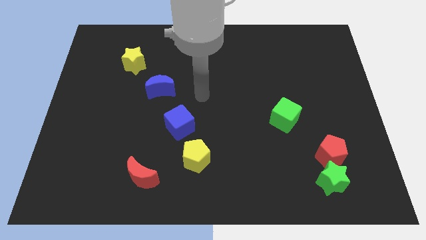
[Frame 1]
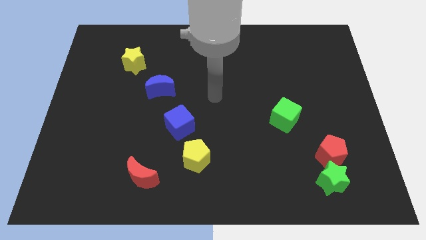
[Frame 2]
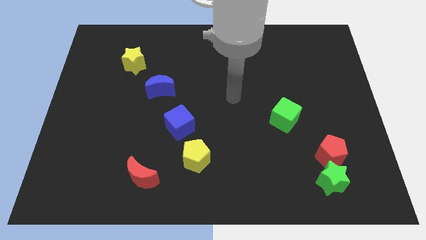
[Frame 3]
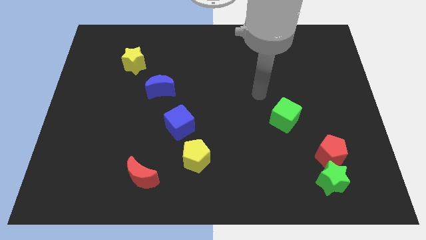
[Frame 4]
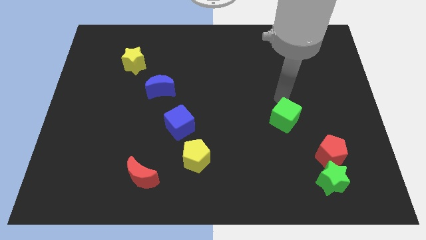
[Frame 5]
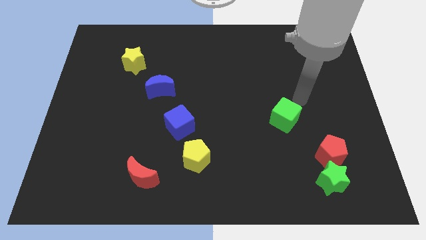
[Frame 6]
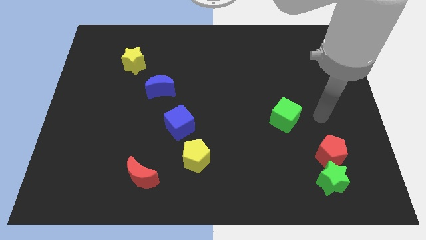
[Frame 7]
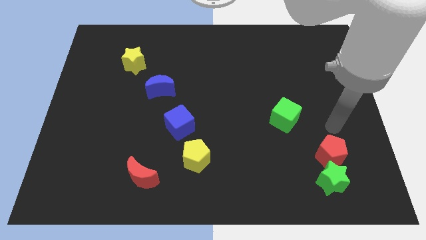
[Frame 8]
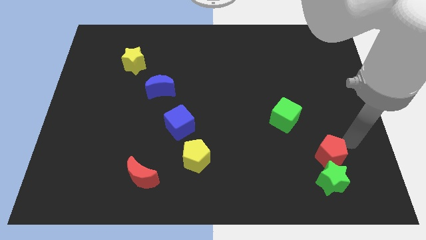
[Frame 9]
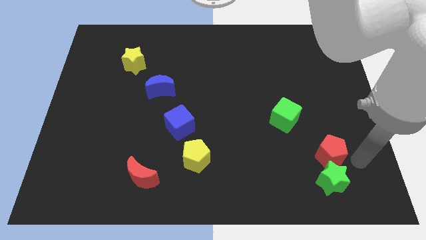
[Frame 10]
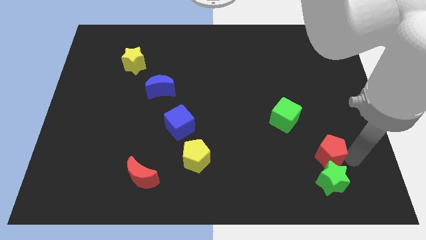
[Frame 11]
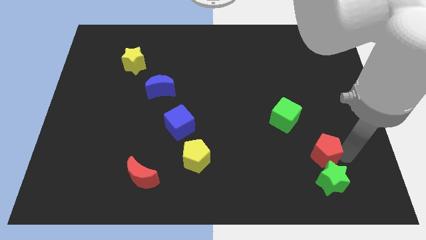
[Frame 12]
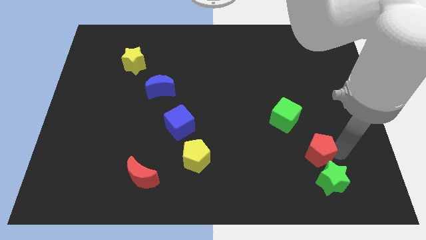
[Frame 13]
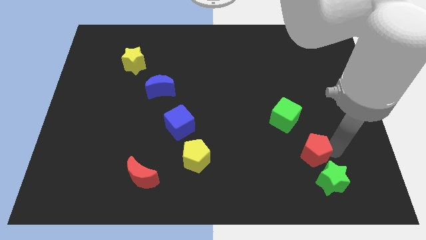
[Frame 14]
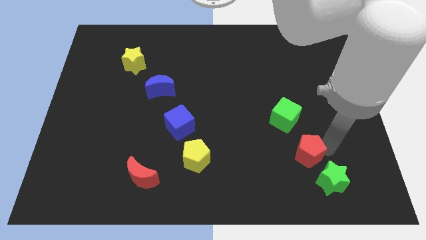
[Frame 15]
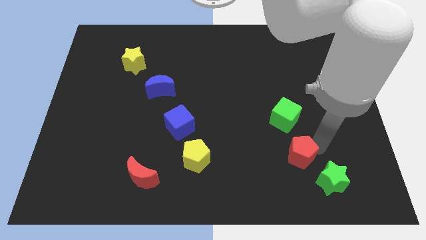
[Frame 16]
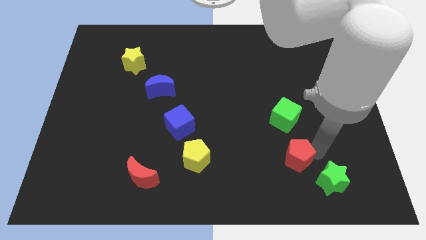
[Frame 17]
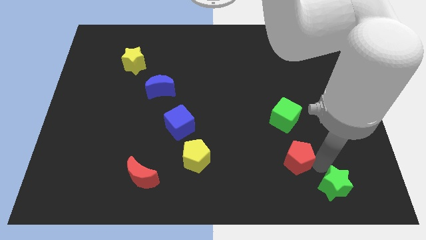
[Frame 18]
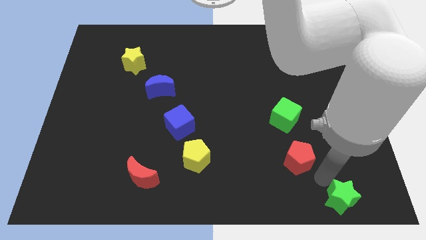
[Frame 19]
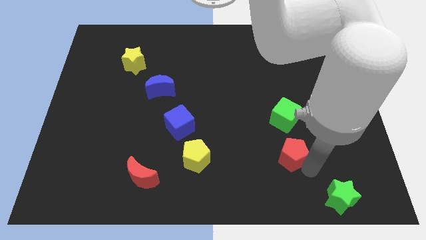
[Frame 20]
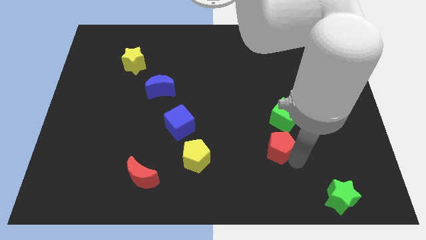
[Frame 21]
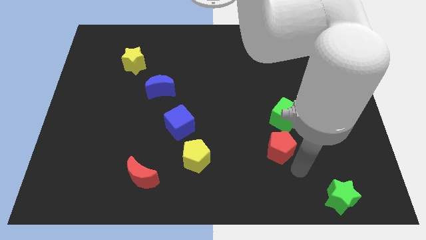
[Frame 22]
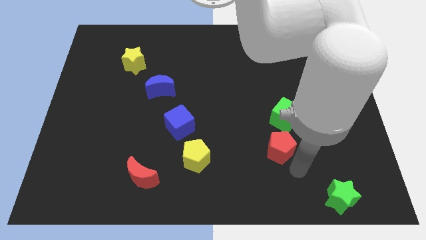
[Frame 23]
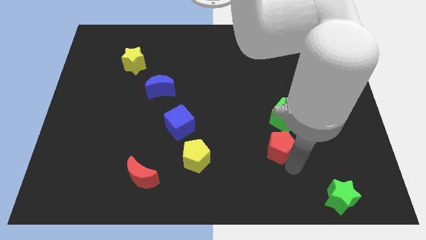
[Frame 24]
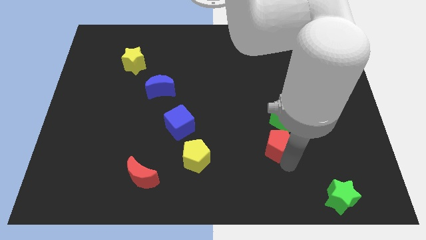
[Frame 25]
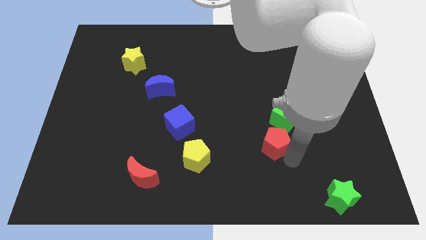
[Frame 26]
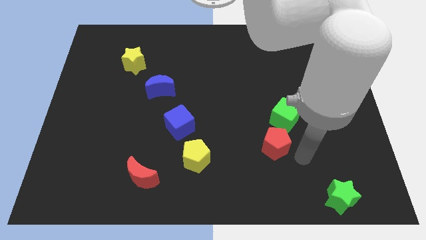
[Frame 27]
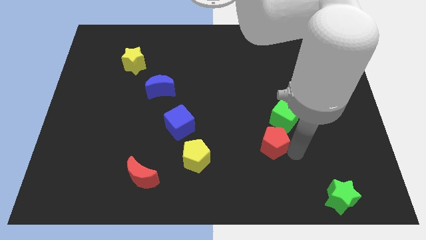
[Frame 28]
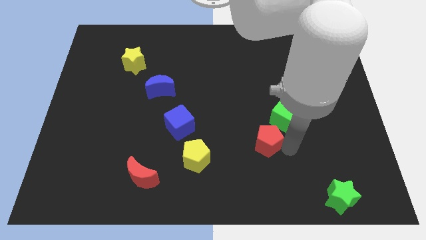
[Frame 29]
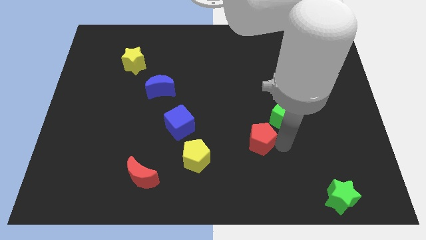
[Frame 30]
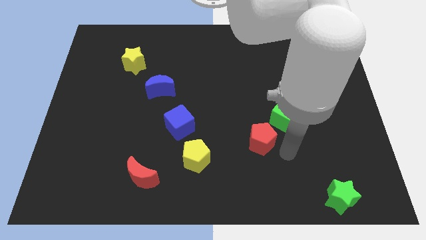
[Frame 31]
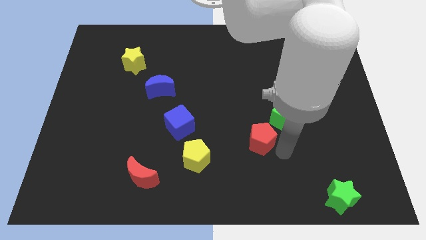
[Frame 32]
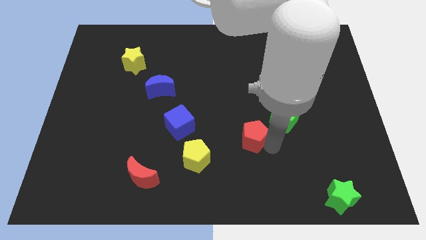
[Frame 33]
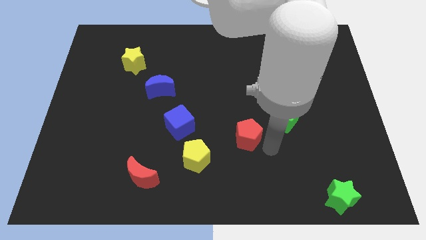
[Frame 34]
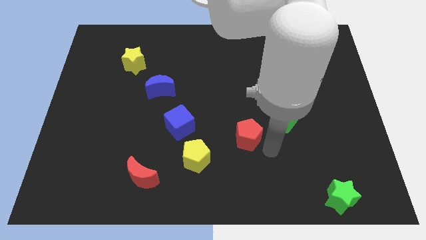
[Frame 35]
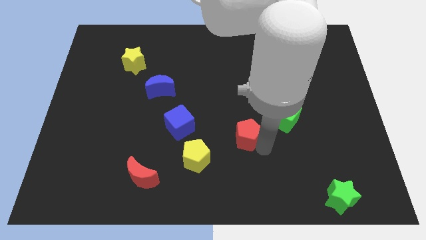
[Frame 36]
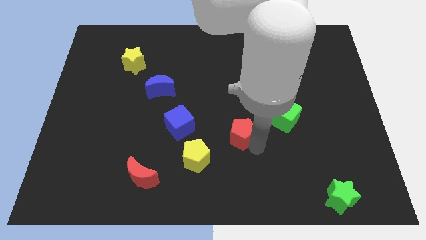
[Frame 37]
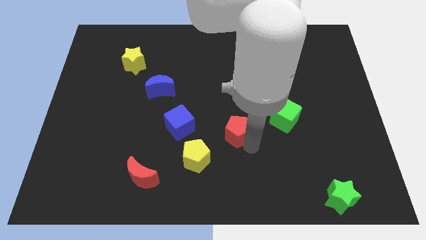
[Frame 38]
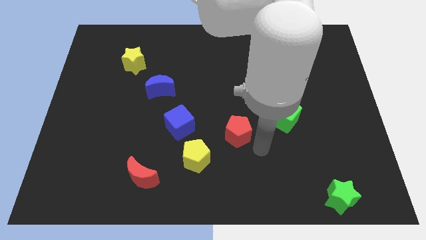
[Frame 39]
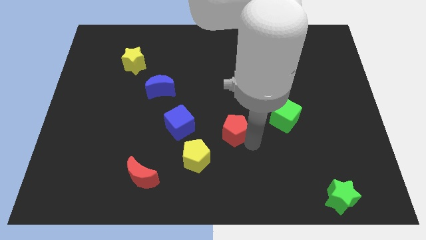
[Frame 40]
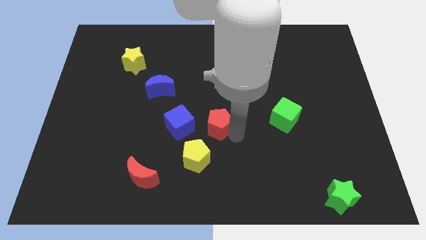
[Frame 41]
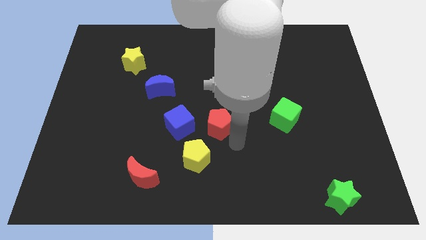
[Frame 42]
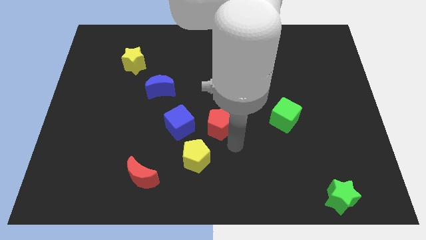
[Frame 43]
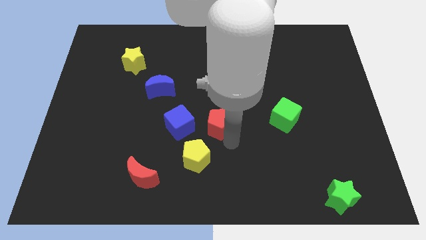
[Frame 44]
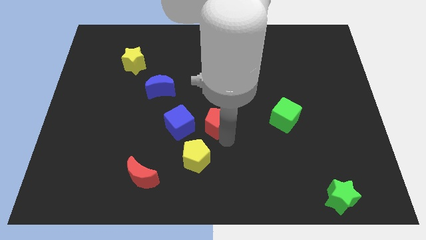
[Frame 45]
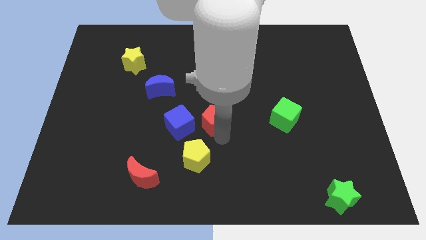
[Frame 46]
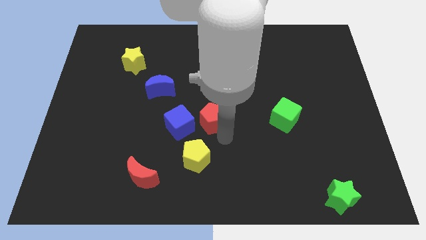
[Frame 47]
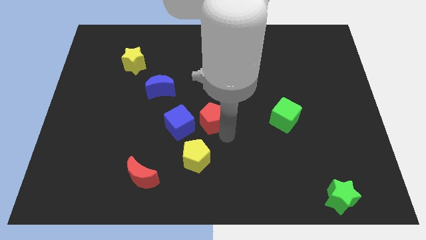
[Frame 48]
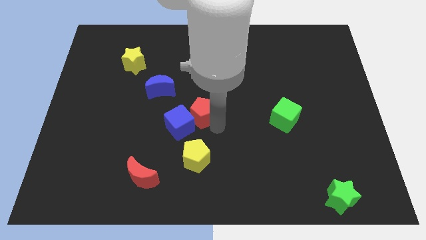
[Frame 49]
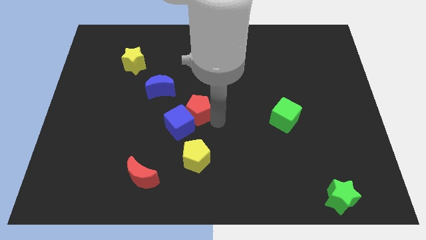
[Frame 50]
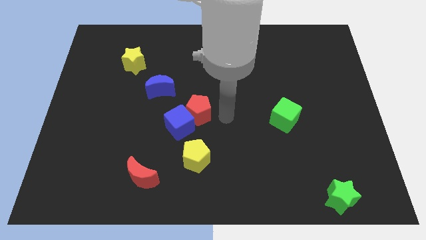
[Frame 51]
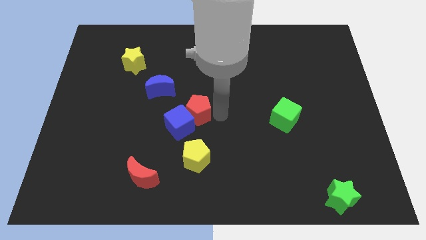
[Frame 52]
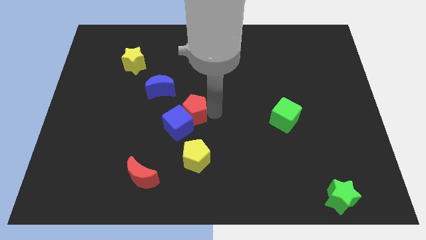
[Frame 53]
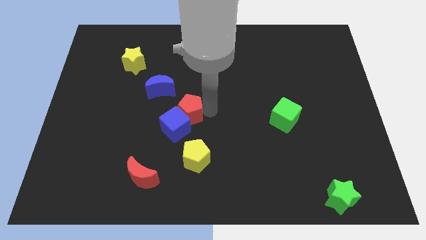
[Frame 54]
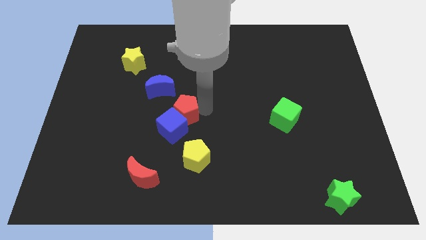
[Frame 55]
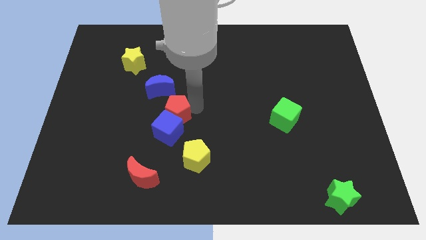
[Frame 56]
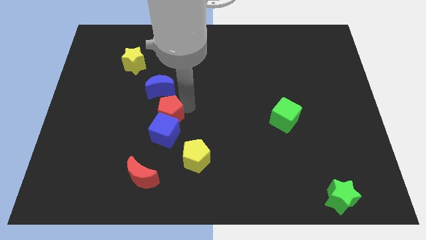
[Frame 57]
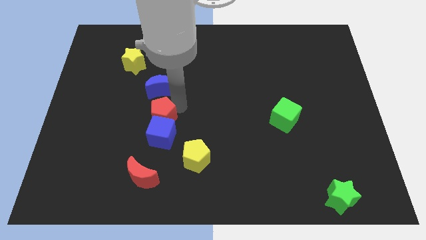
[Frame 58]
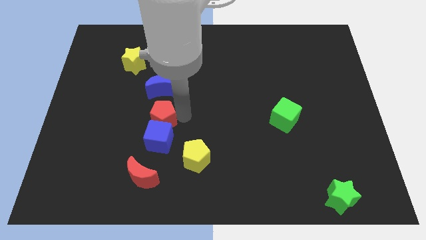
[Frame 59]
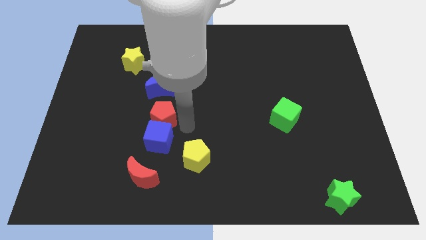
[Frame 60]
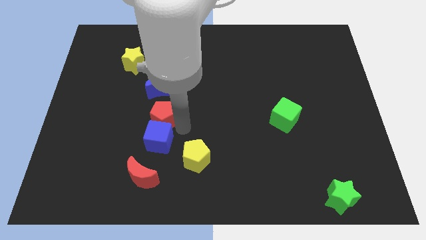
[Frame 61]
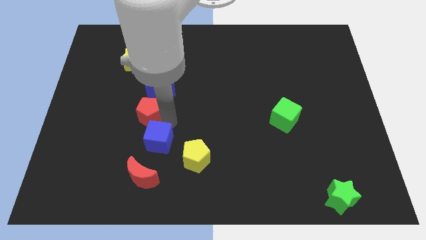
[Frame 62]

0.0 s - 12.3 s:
move the red pentagon diagonally down and to the left of the blue moon
